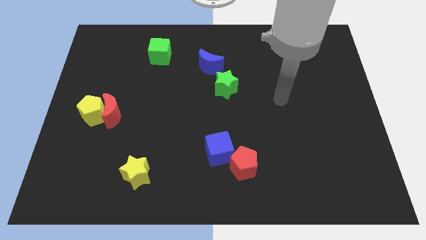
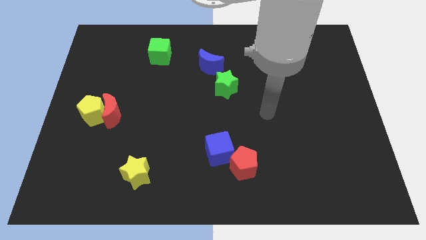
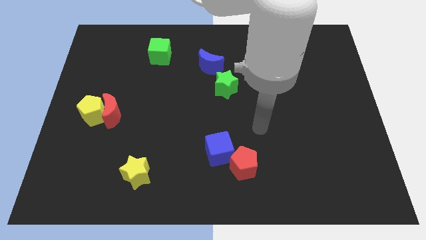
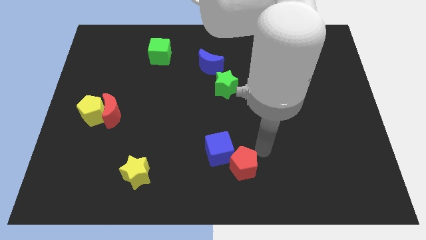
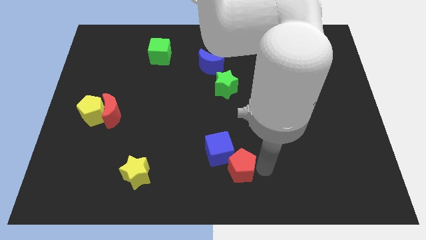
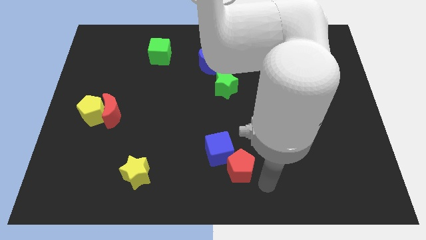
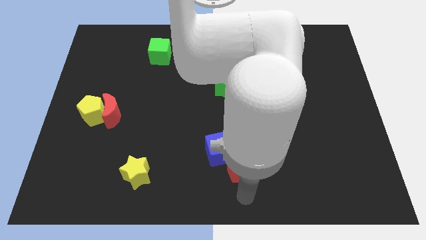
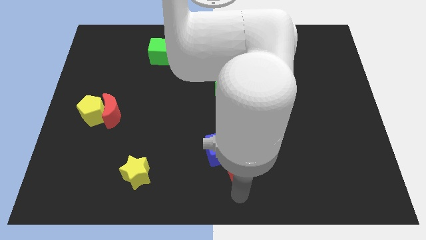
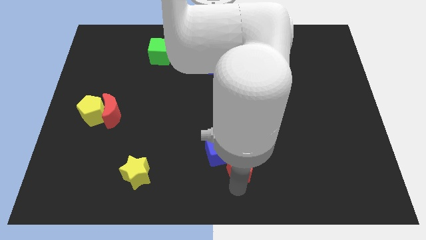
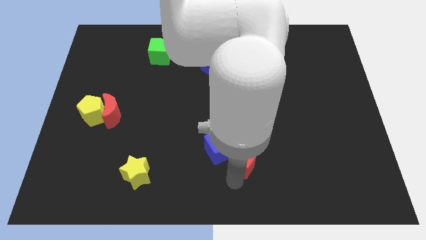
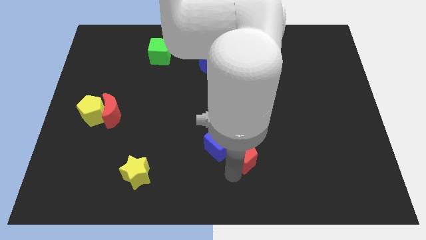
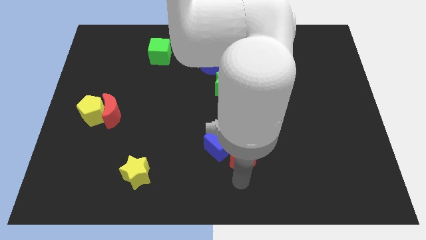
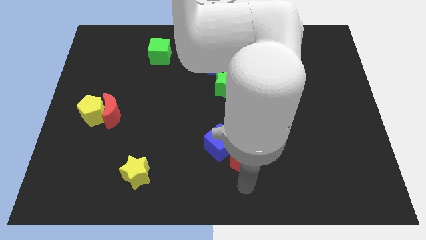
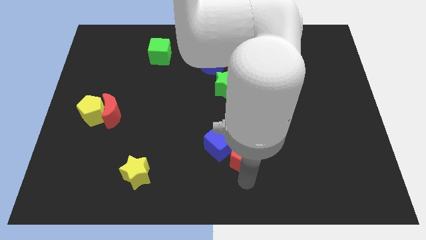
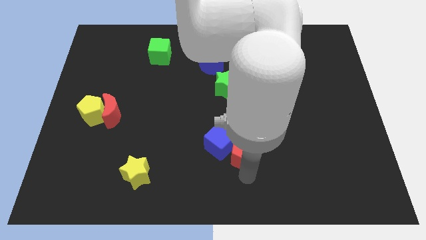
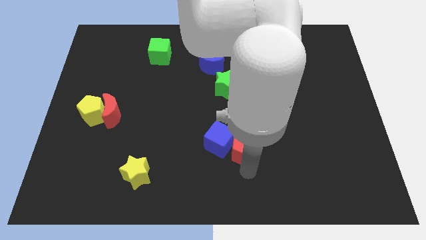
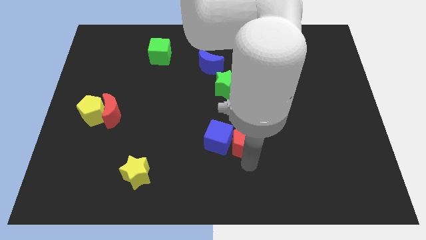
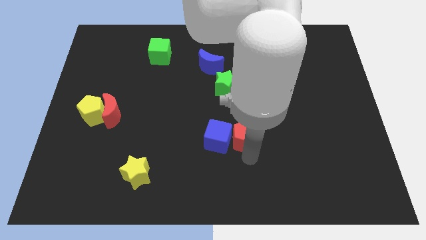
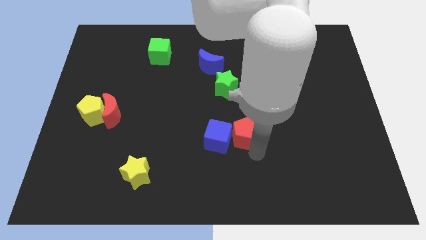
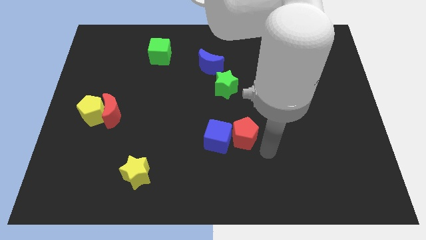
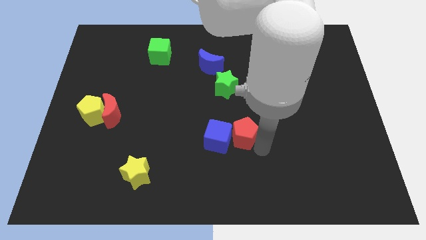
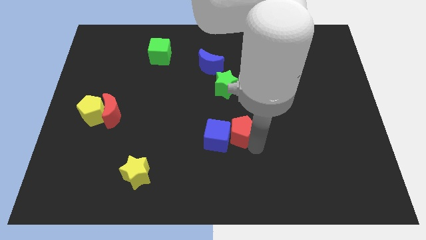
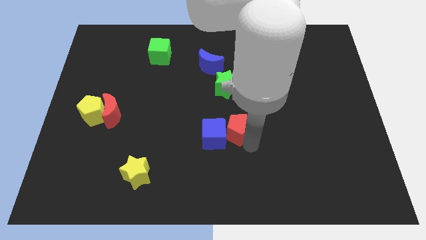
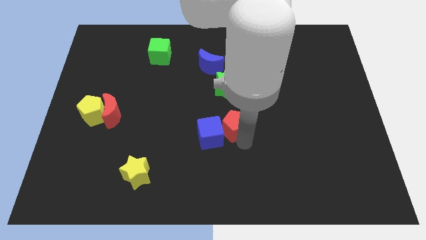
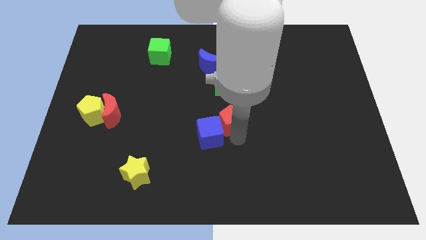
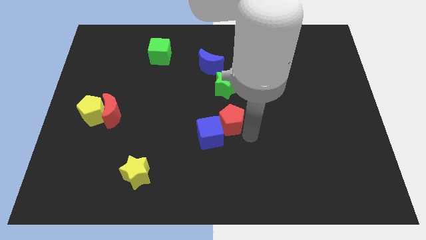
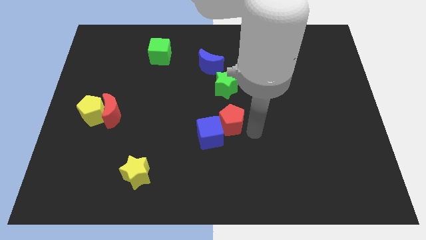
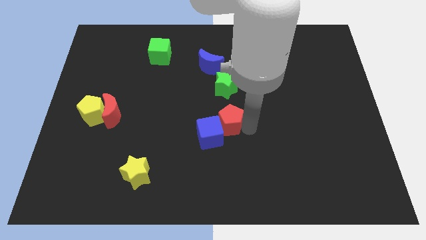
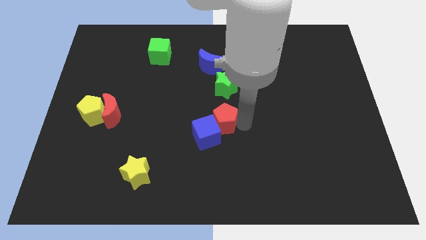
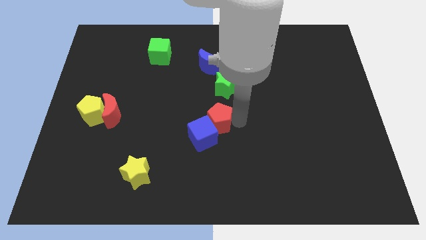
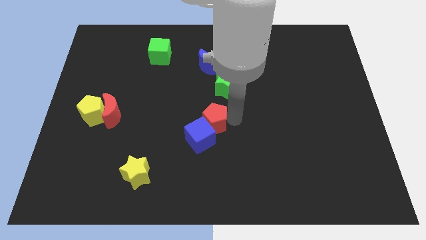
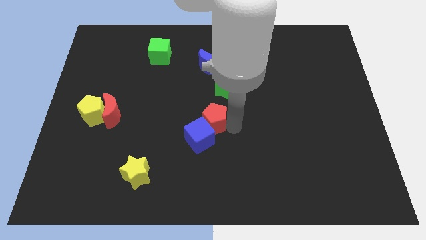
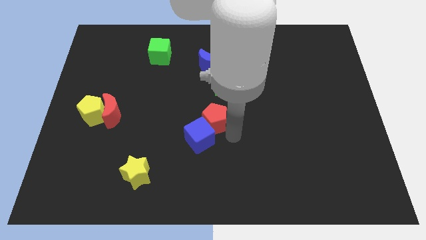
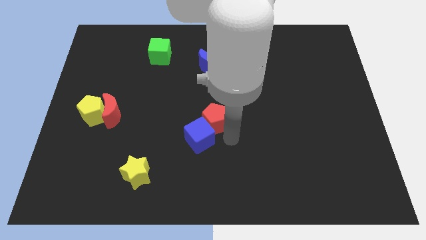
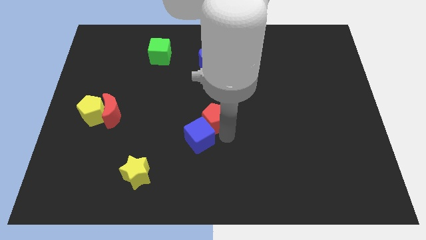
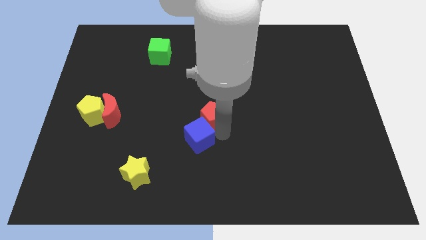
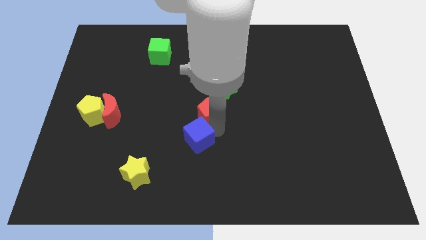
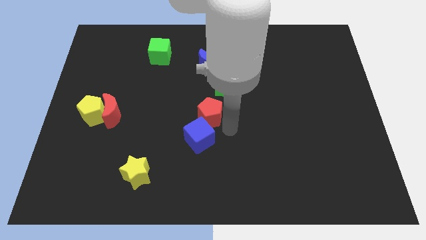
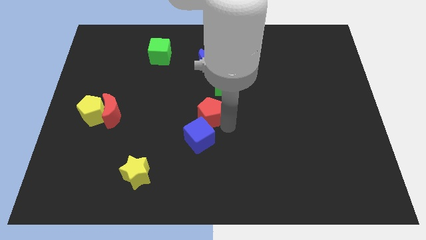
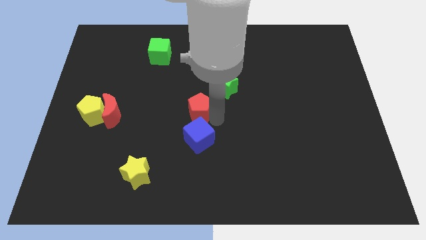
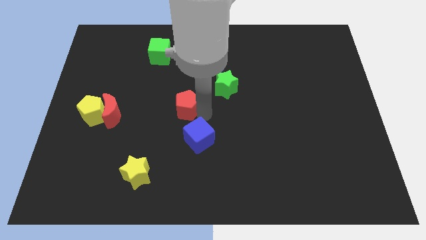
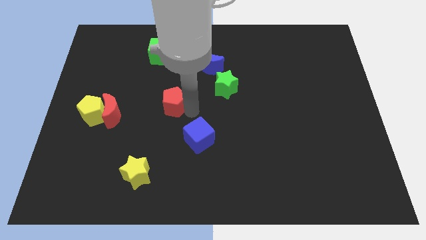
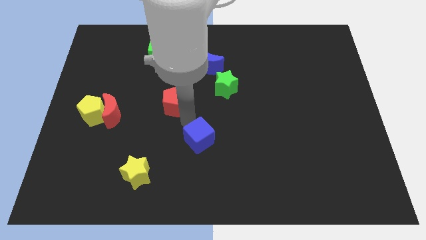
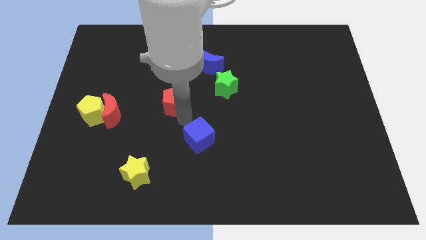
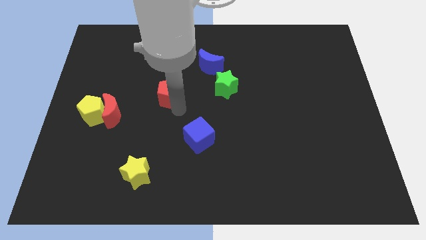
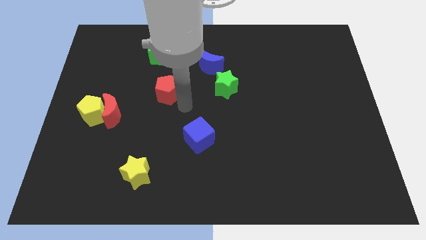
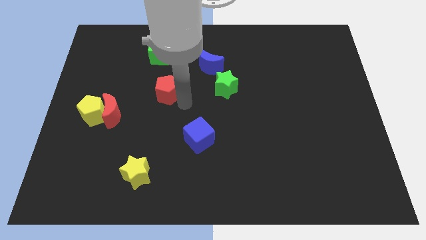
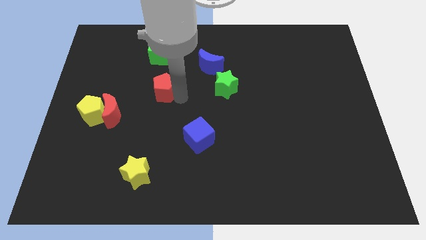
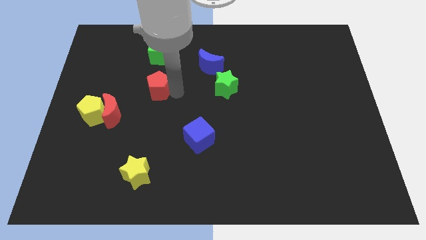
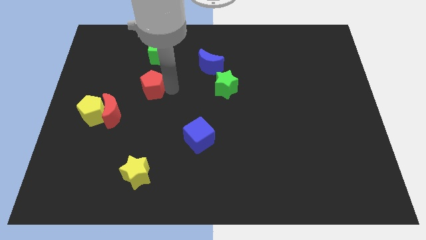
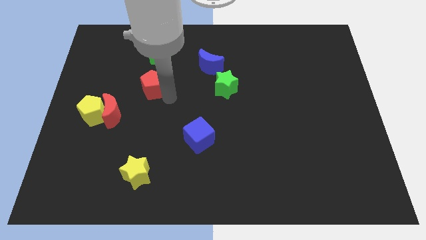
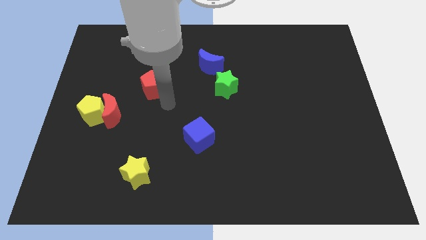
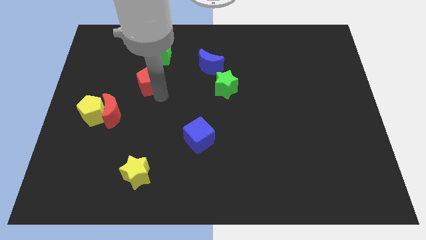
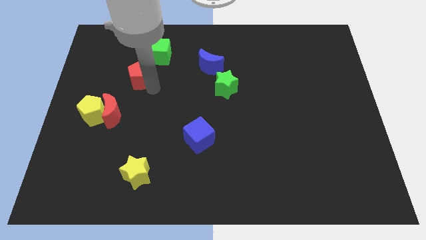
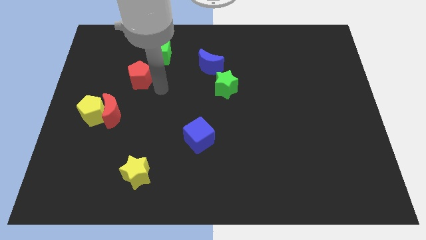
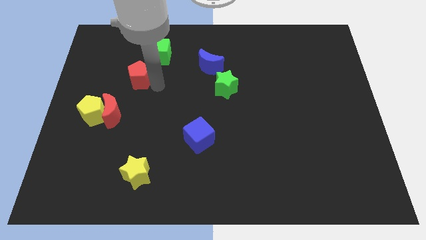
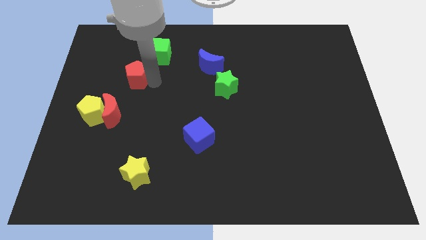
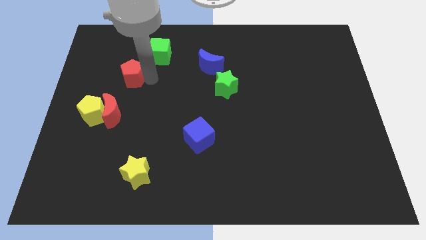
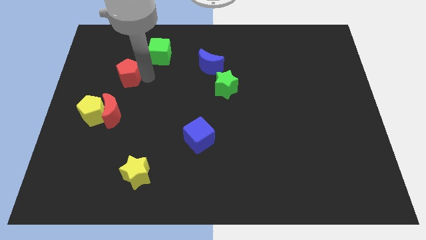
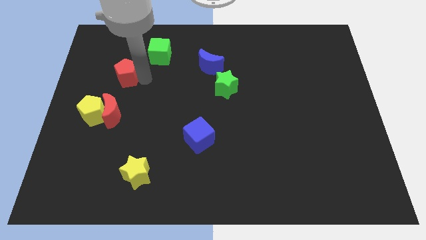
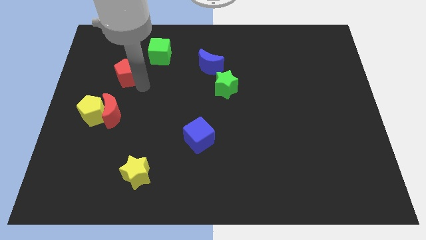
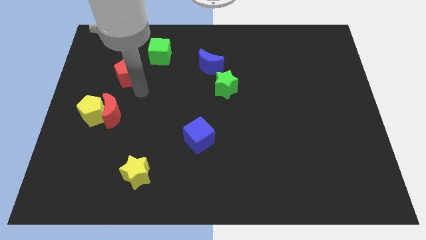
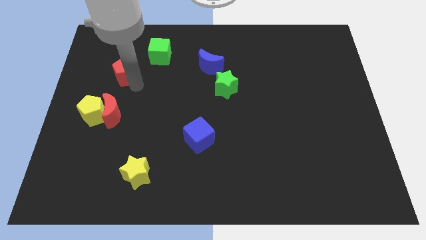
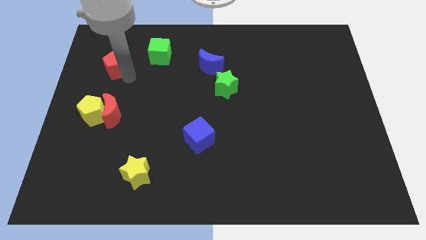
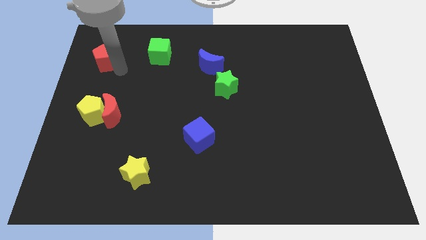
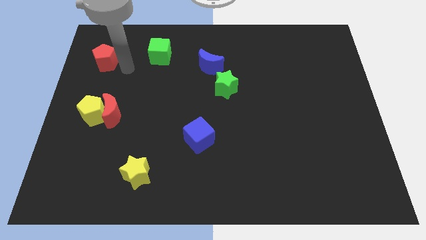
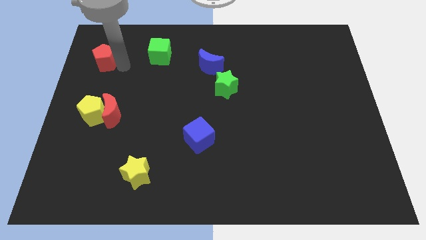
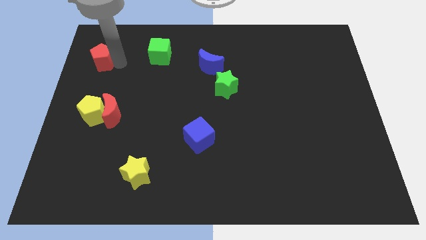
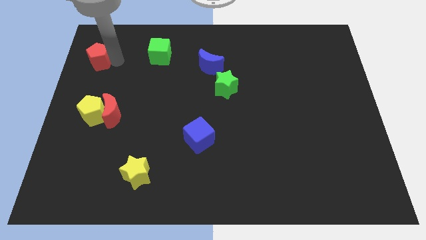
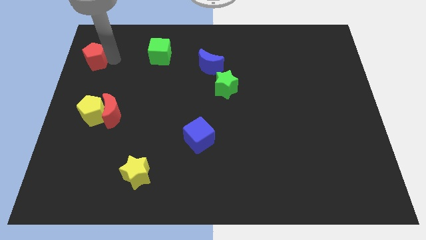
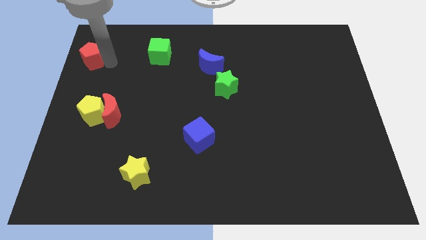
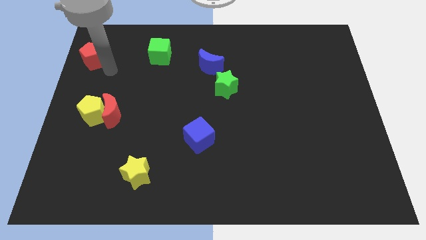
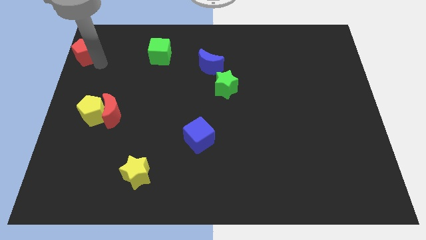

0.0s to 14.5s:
put the red pentagon to the upper left corner
